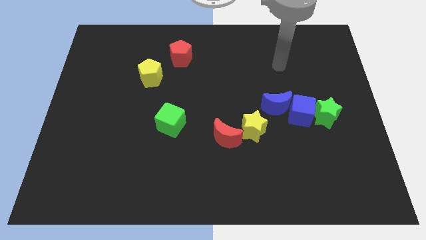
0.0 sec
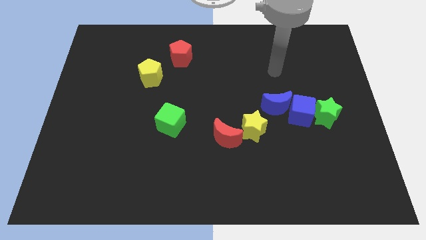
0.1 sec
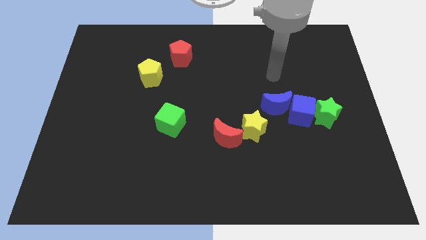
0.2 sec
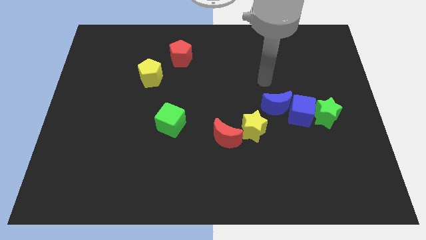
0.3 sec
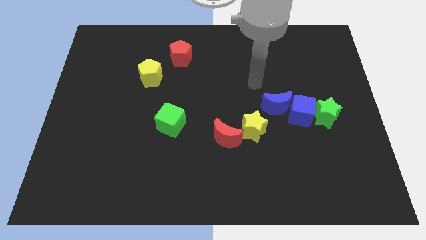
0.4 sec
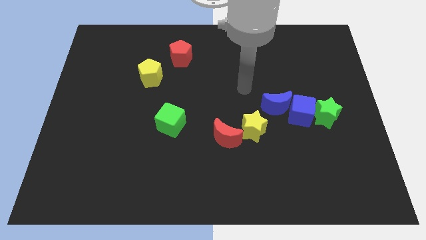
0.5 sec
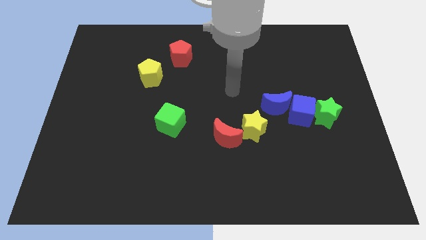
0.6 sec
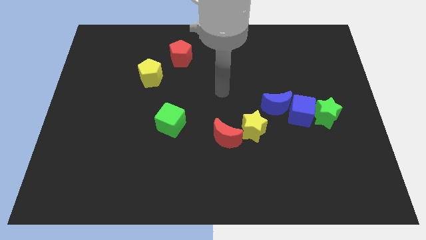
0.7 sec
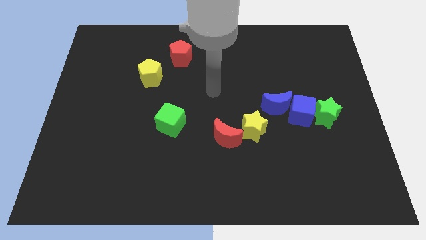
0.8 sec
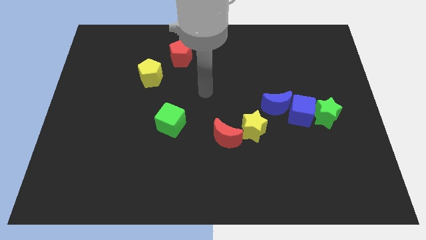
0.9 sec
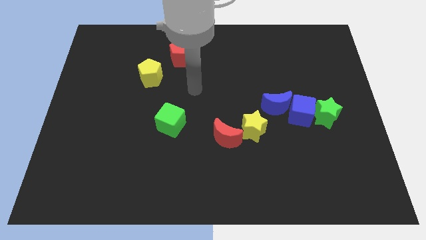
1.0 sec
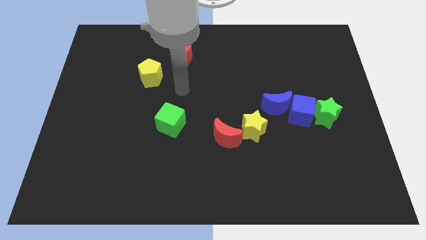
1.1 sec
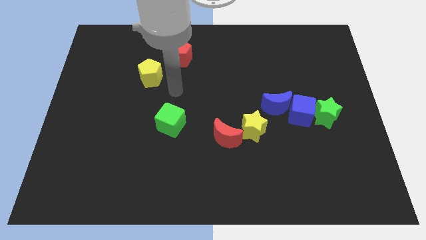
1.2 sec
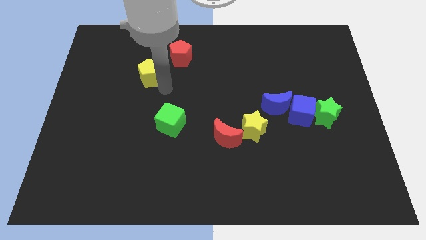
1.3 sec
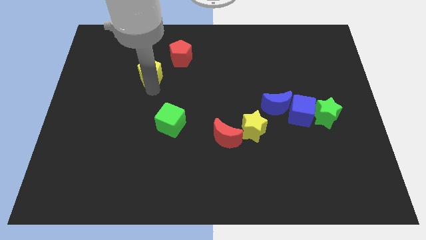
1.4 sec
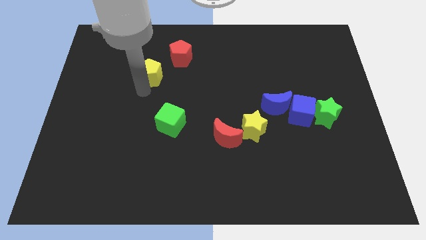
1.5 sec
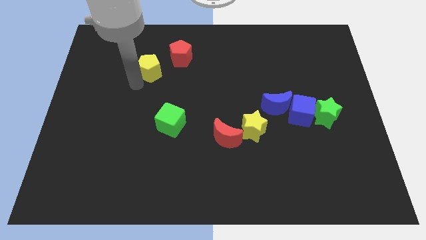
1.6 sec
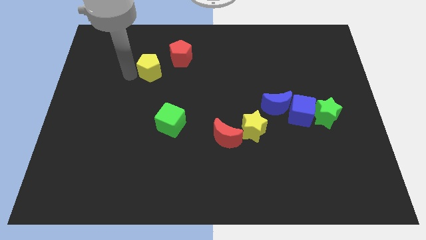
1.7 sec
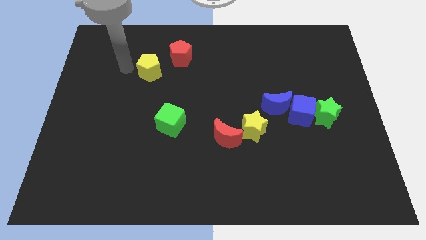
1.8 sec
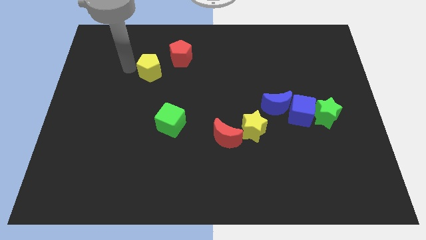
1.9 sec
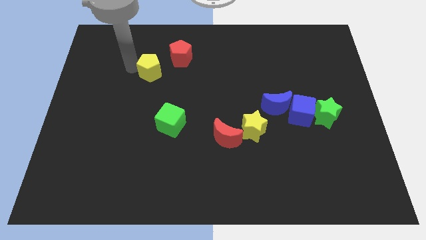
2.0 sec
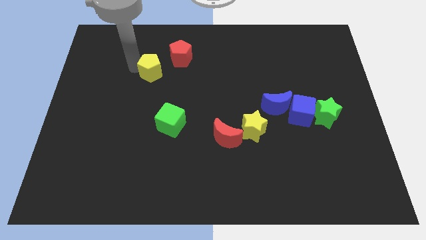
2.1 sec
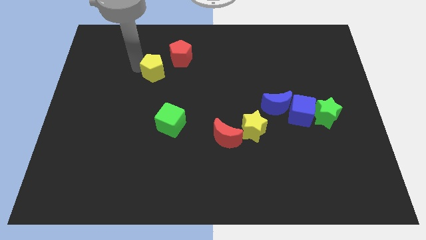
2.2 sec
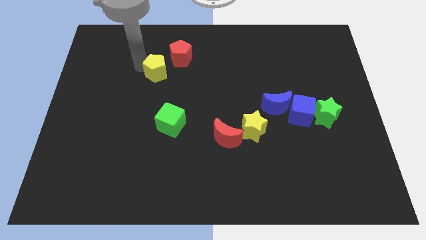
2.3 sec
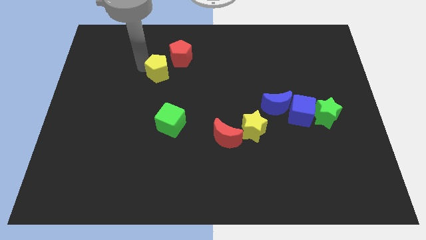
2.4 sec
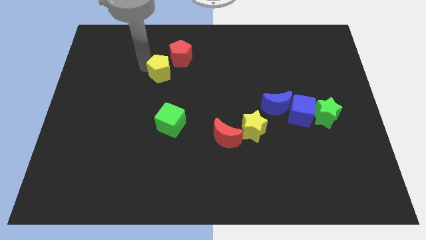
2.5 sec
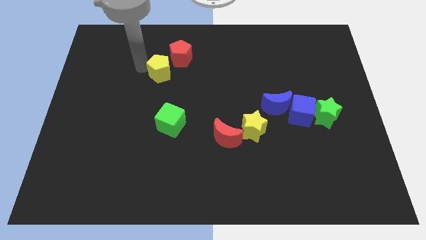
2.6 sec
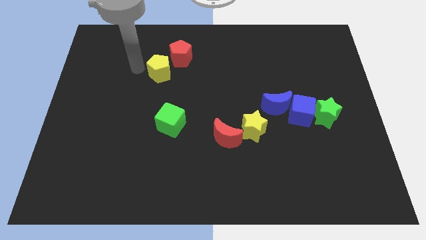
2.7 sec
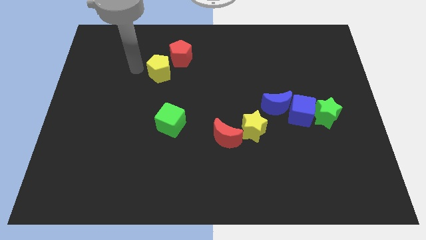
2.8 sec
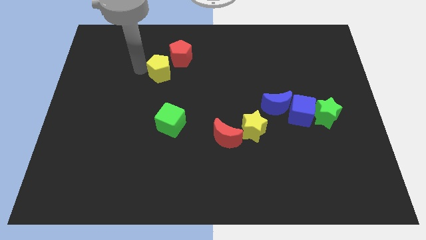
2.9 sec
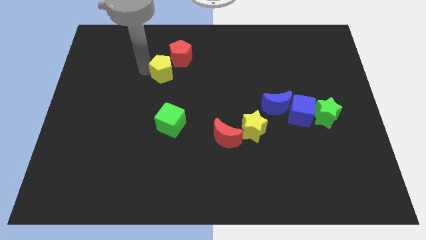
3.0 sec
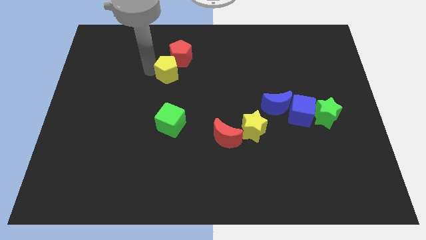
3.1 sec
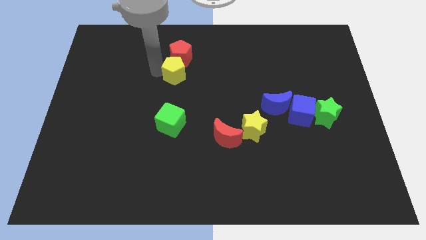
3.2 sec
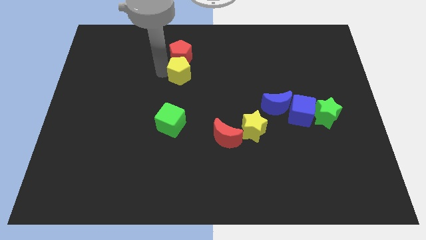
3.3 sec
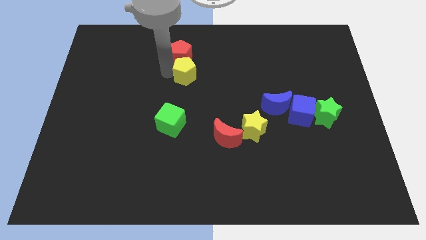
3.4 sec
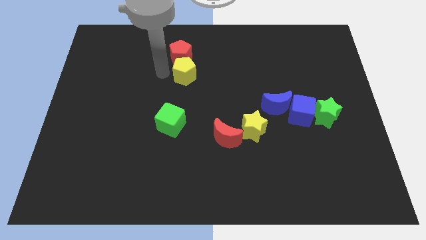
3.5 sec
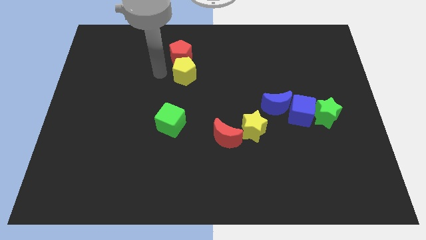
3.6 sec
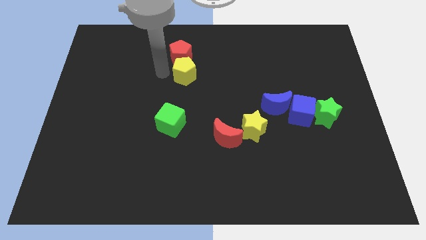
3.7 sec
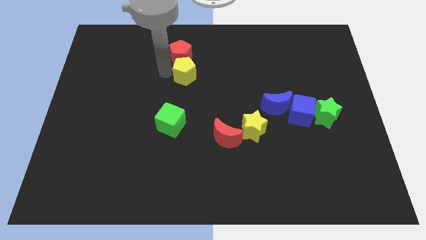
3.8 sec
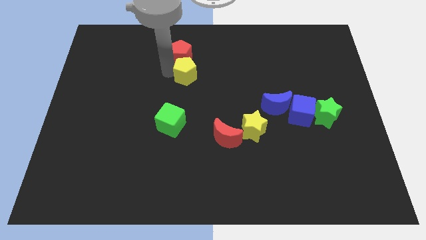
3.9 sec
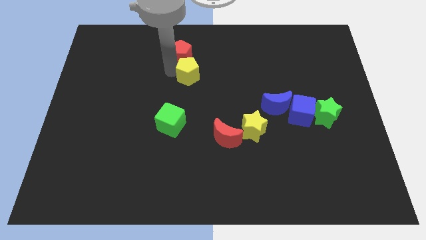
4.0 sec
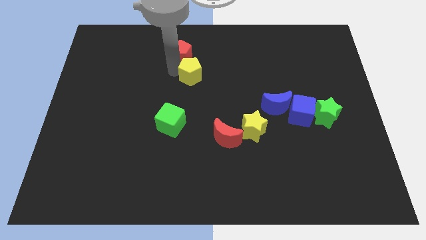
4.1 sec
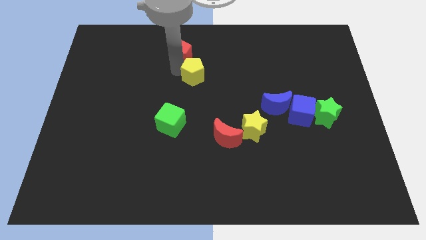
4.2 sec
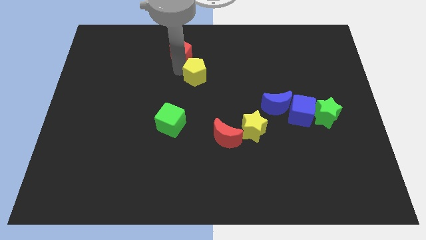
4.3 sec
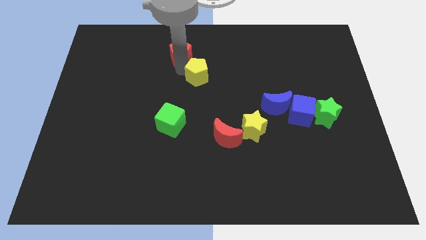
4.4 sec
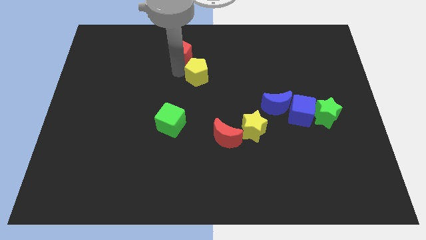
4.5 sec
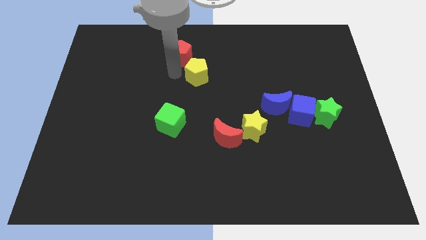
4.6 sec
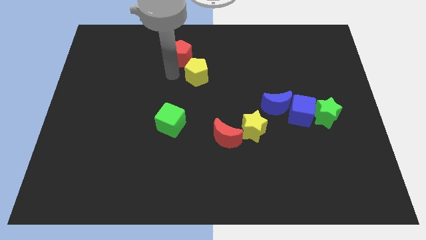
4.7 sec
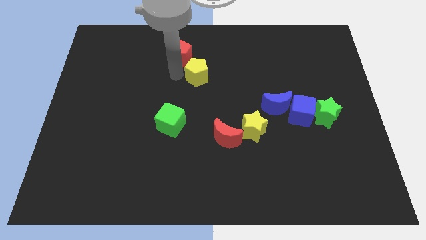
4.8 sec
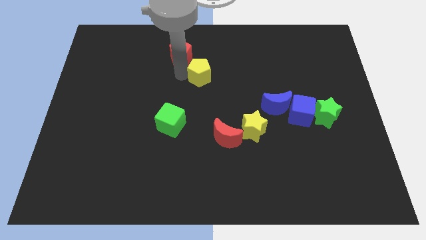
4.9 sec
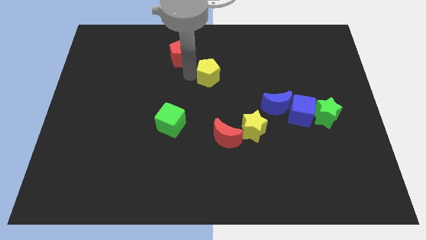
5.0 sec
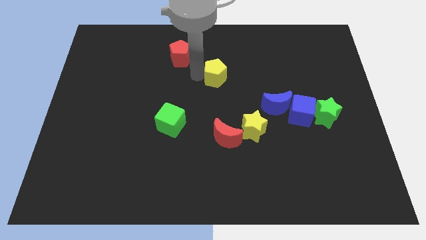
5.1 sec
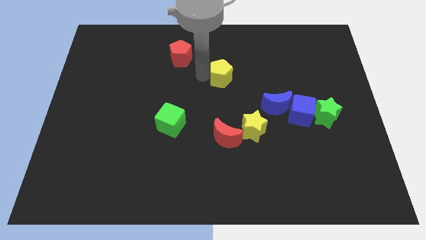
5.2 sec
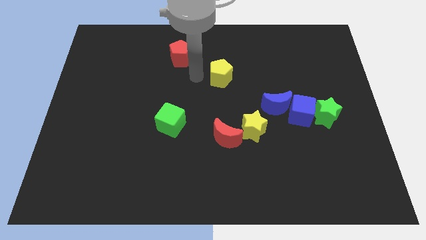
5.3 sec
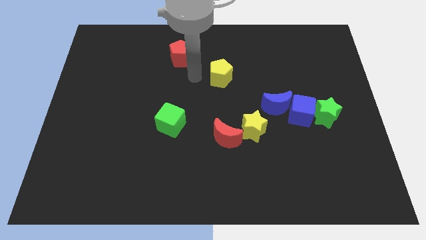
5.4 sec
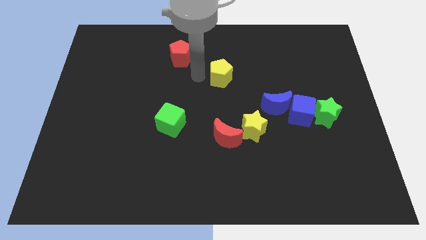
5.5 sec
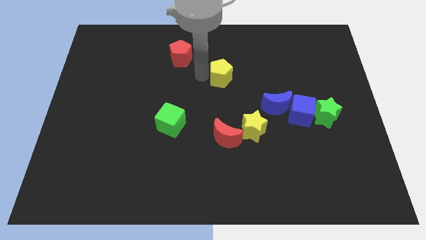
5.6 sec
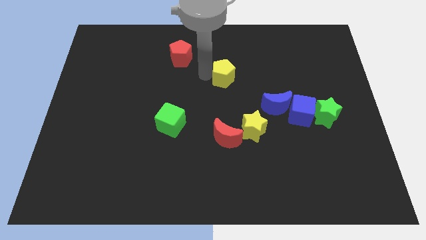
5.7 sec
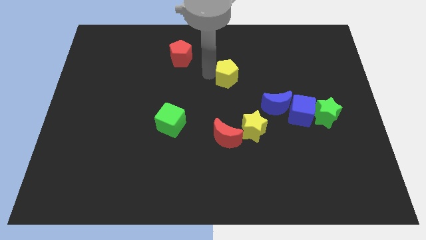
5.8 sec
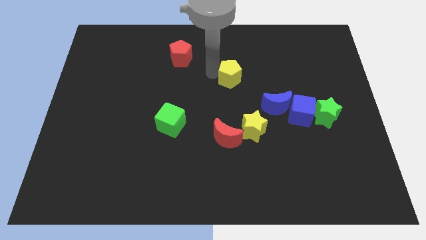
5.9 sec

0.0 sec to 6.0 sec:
push the yellow pentagon right

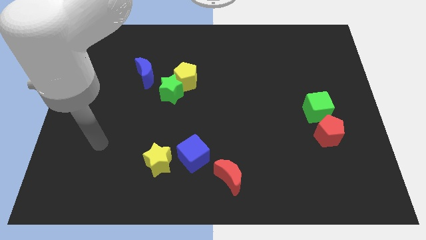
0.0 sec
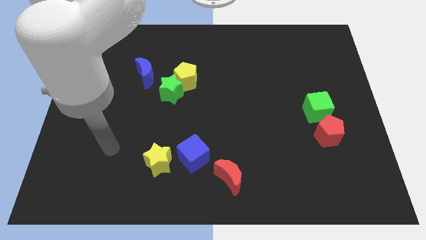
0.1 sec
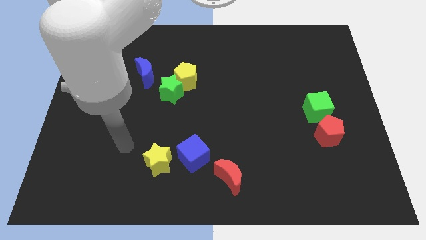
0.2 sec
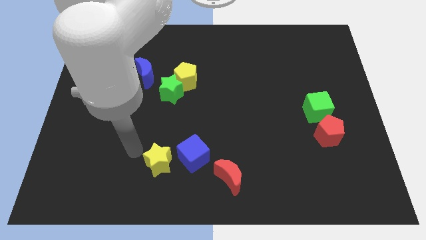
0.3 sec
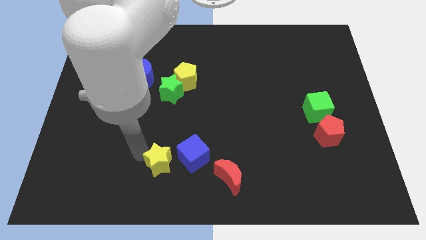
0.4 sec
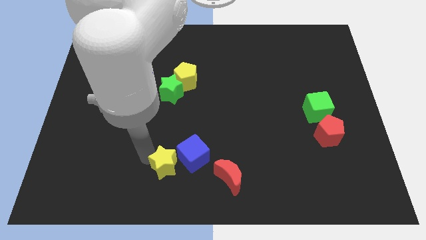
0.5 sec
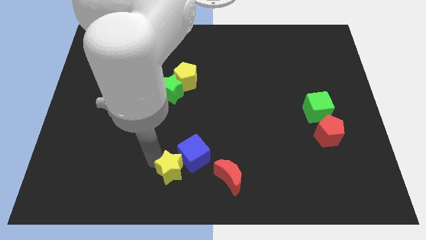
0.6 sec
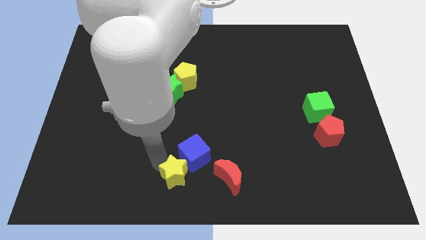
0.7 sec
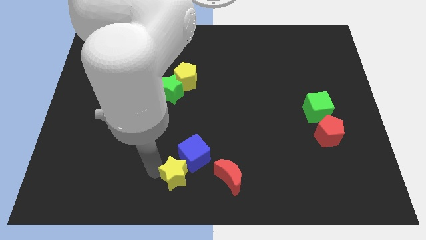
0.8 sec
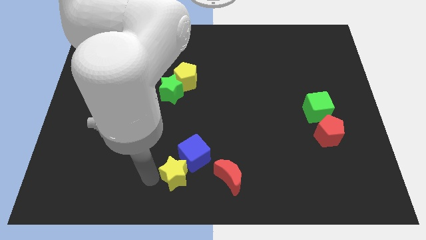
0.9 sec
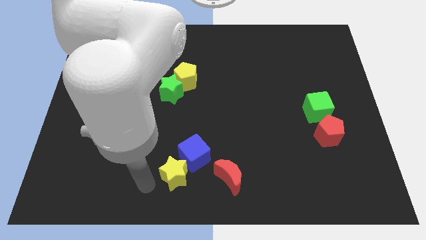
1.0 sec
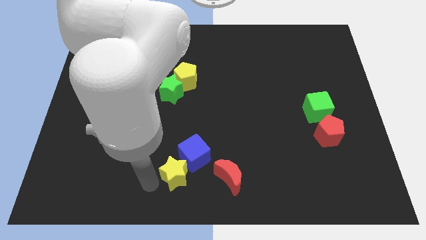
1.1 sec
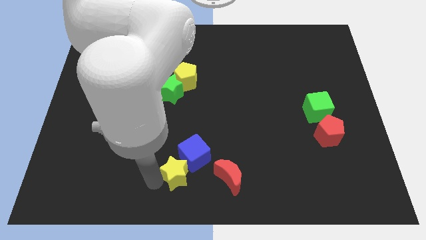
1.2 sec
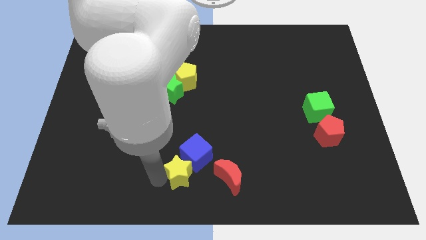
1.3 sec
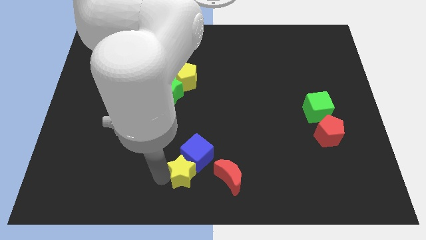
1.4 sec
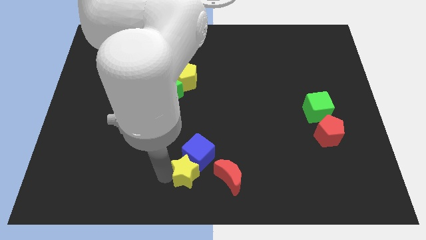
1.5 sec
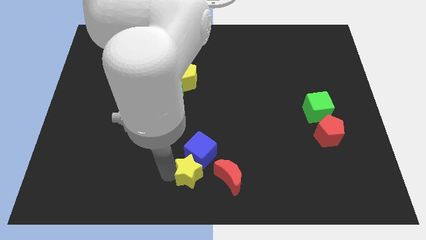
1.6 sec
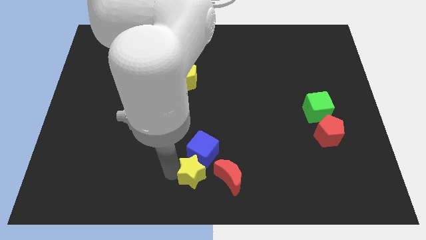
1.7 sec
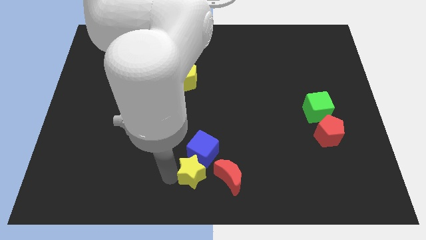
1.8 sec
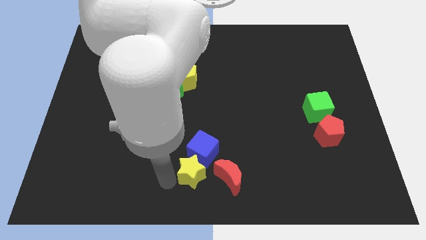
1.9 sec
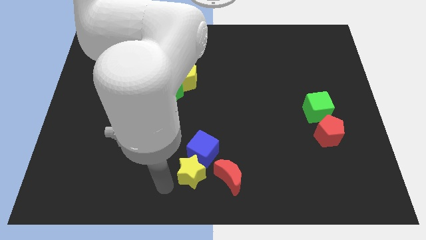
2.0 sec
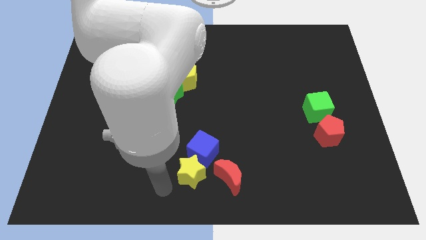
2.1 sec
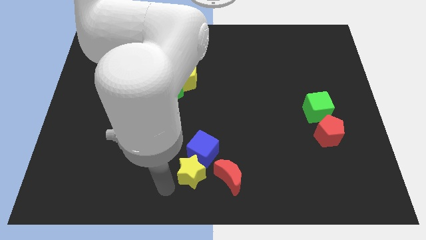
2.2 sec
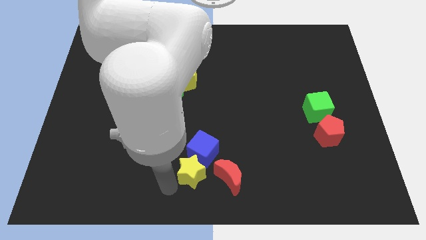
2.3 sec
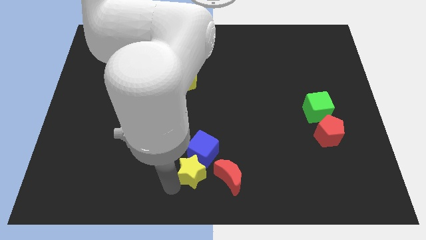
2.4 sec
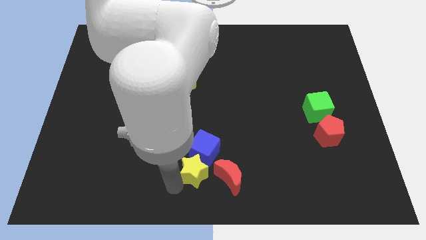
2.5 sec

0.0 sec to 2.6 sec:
push the yellow star to the right a little
